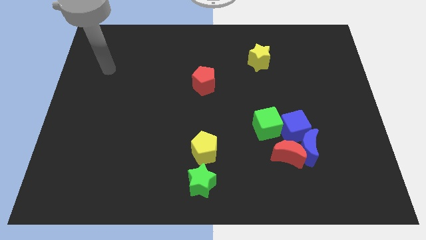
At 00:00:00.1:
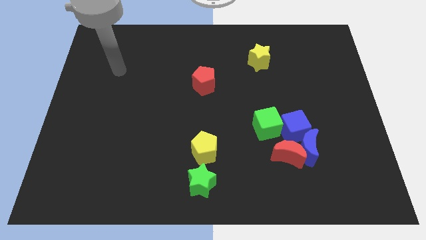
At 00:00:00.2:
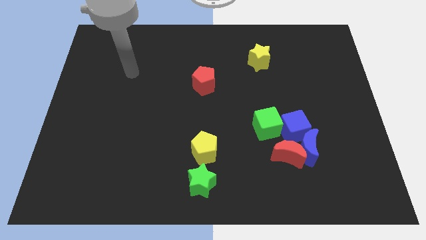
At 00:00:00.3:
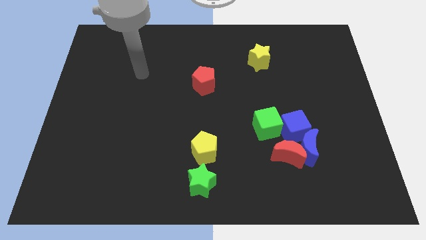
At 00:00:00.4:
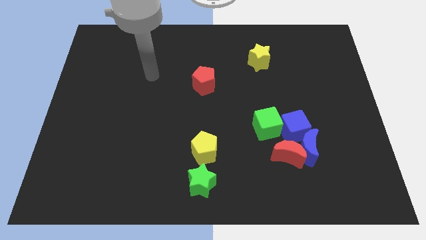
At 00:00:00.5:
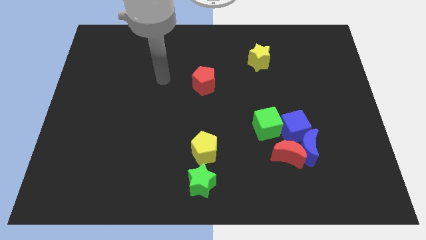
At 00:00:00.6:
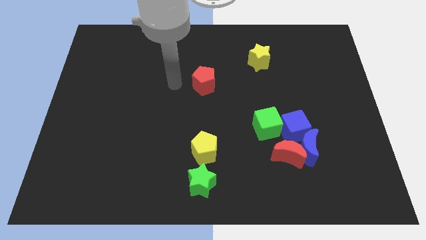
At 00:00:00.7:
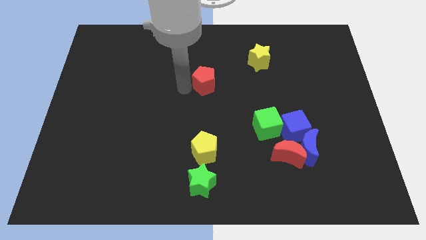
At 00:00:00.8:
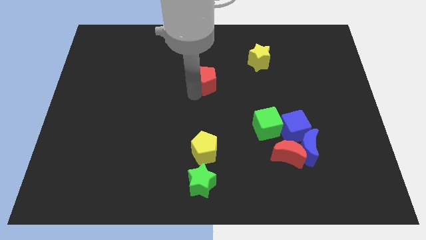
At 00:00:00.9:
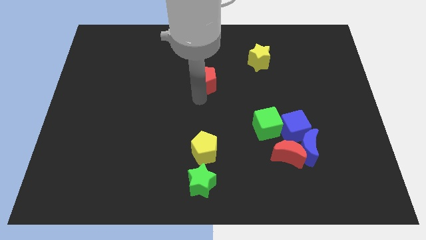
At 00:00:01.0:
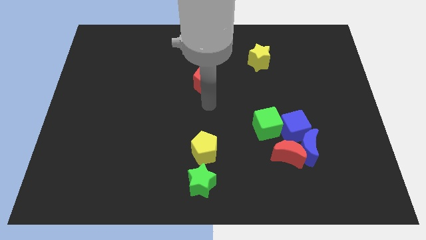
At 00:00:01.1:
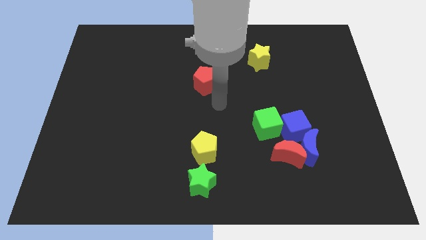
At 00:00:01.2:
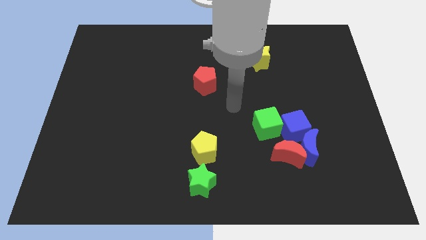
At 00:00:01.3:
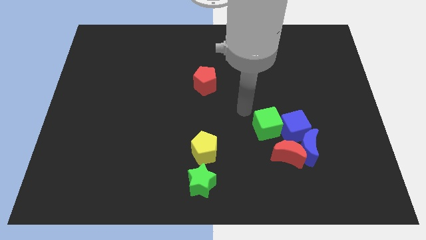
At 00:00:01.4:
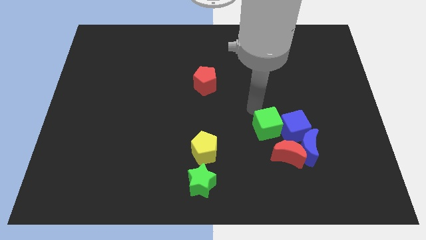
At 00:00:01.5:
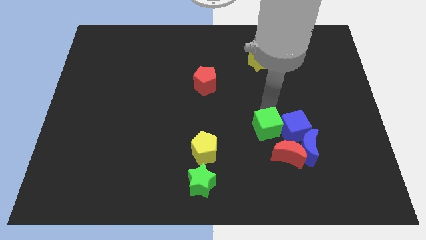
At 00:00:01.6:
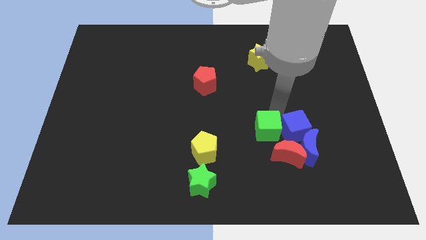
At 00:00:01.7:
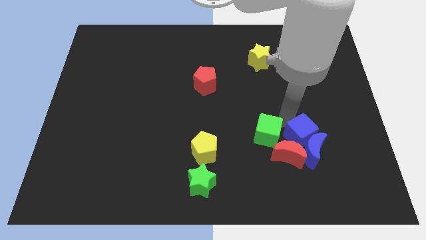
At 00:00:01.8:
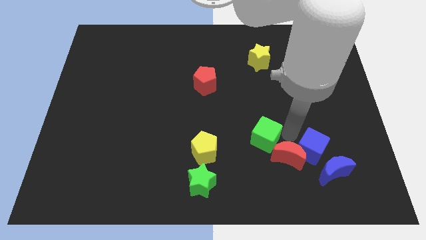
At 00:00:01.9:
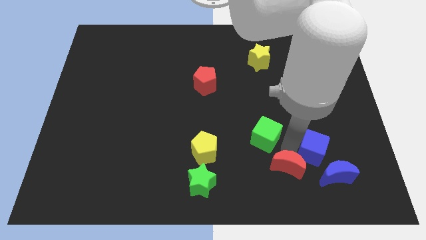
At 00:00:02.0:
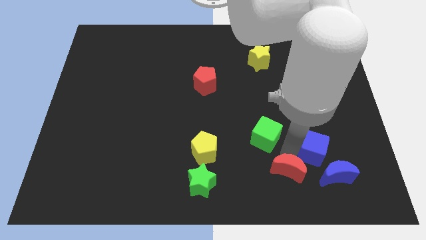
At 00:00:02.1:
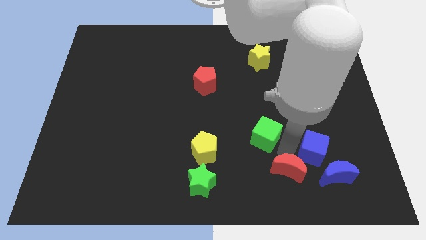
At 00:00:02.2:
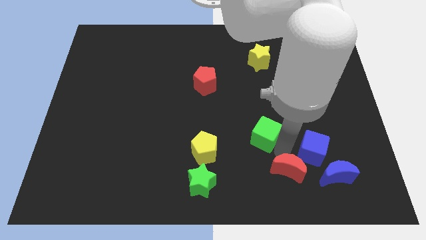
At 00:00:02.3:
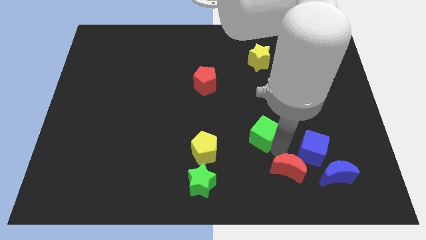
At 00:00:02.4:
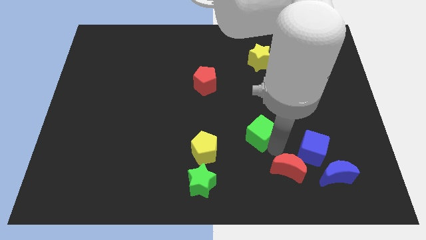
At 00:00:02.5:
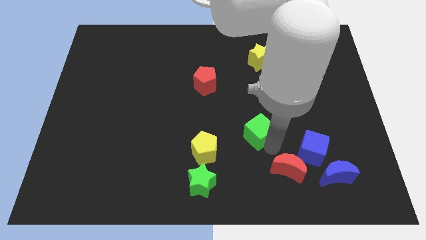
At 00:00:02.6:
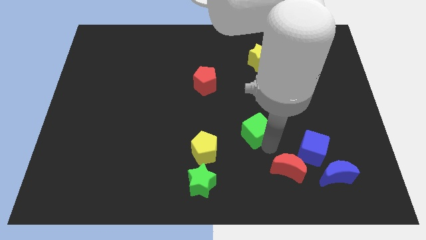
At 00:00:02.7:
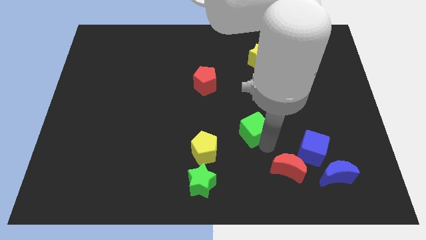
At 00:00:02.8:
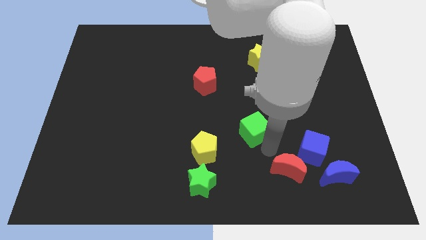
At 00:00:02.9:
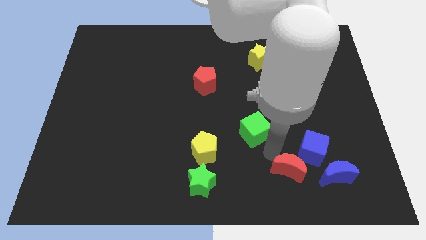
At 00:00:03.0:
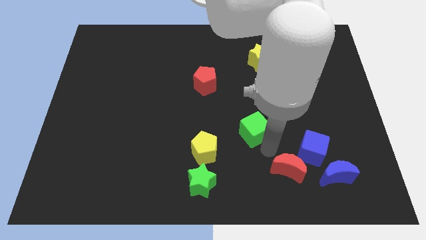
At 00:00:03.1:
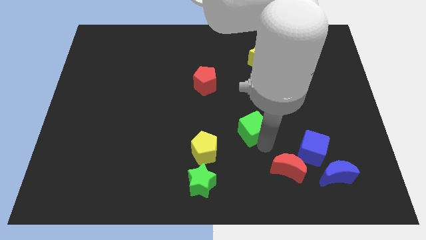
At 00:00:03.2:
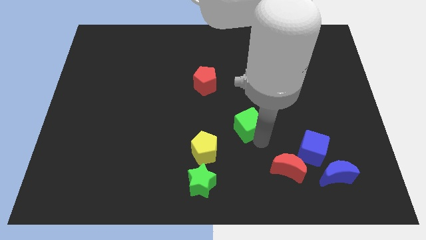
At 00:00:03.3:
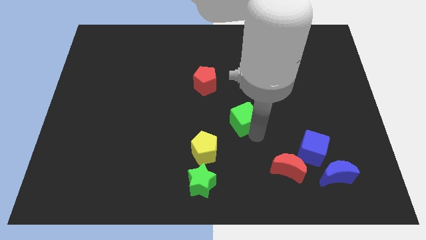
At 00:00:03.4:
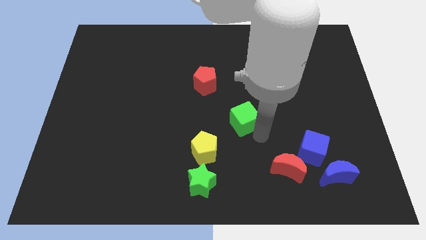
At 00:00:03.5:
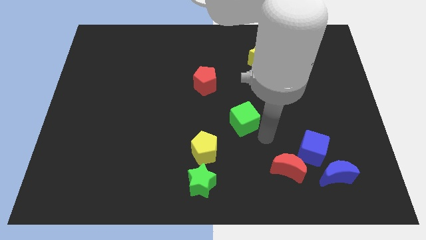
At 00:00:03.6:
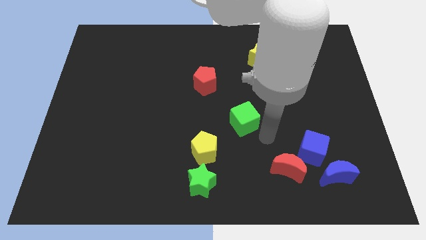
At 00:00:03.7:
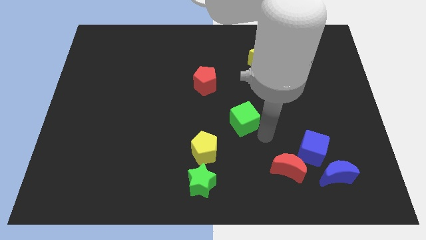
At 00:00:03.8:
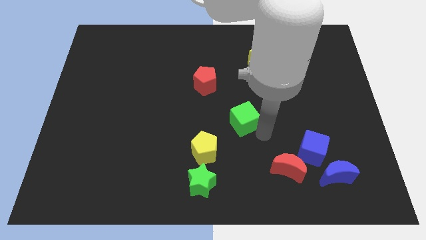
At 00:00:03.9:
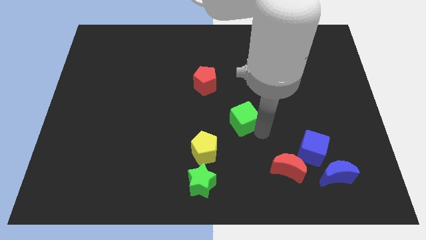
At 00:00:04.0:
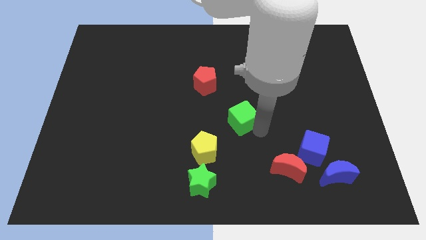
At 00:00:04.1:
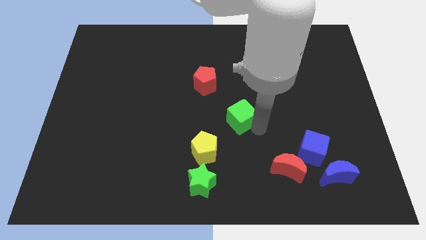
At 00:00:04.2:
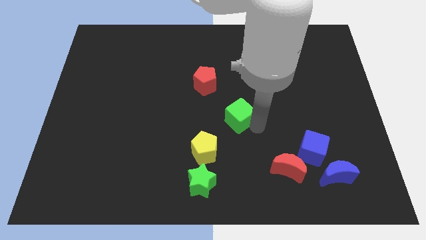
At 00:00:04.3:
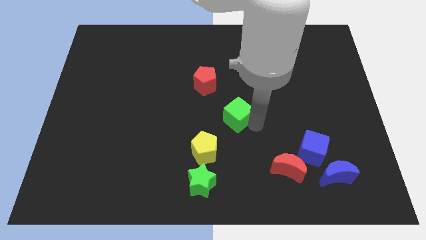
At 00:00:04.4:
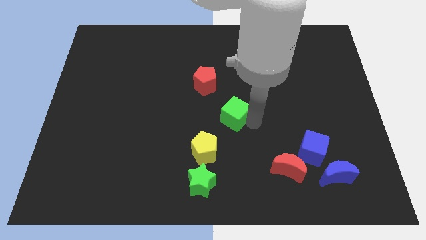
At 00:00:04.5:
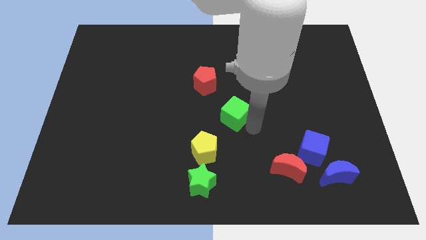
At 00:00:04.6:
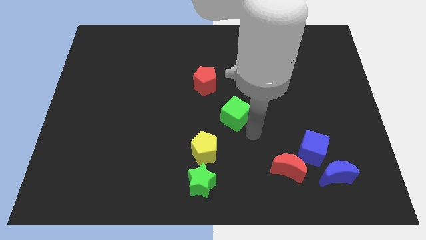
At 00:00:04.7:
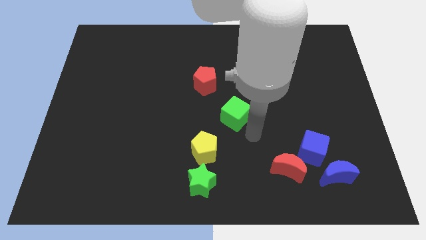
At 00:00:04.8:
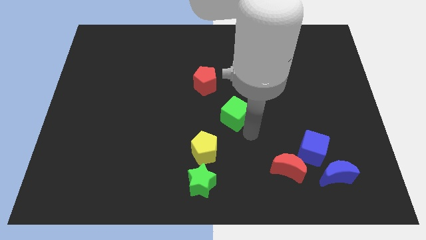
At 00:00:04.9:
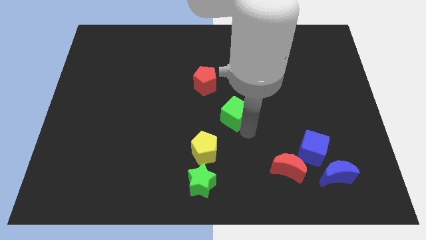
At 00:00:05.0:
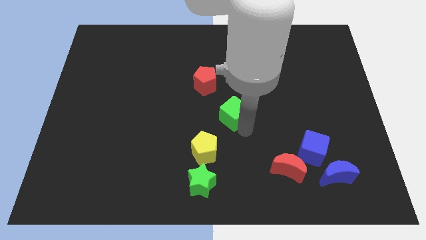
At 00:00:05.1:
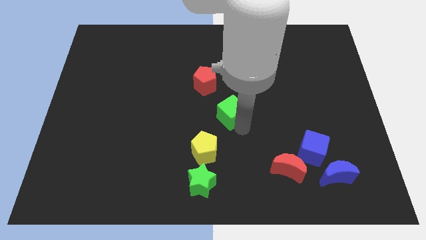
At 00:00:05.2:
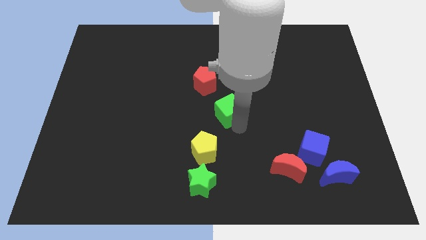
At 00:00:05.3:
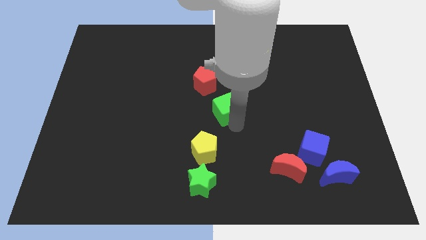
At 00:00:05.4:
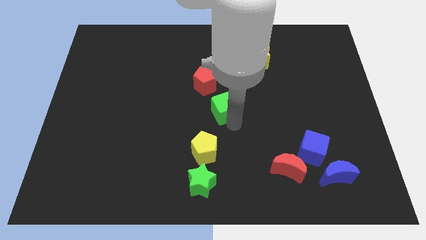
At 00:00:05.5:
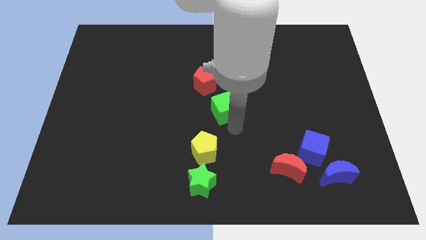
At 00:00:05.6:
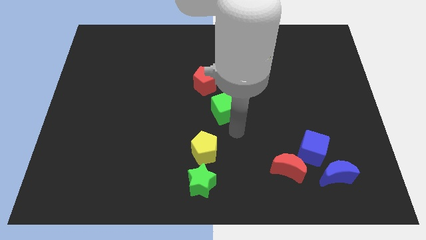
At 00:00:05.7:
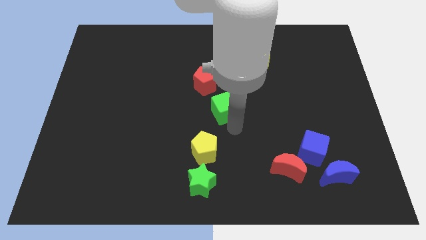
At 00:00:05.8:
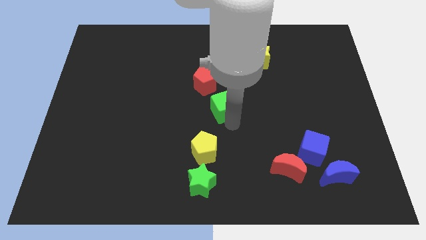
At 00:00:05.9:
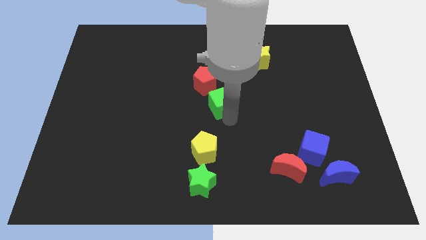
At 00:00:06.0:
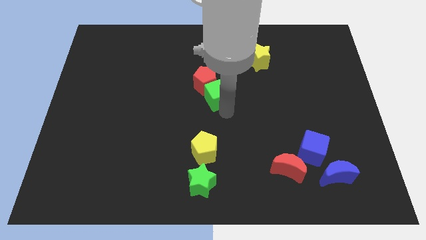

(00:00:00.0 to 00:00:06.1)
push the green cube next to the red pentagon
